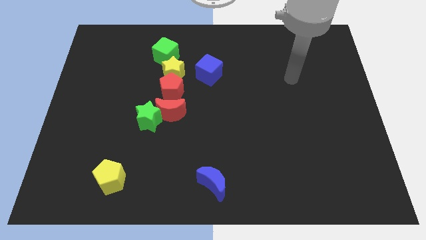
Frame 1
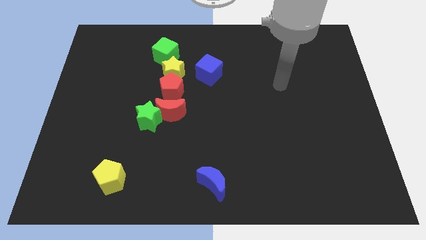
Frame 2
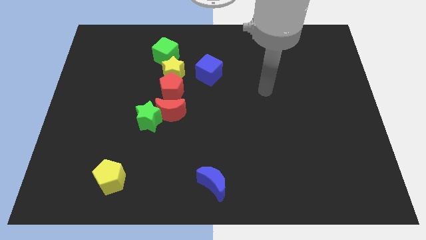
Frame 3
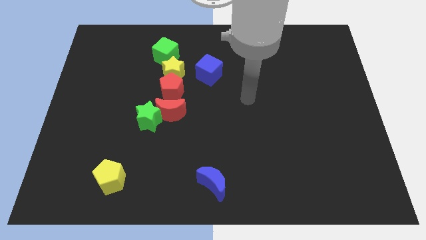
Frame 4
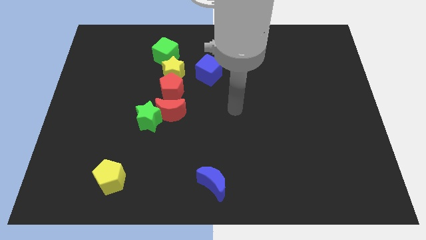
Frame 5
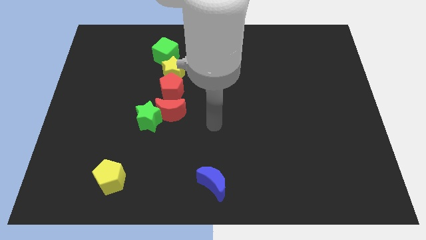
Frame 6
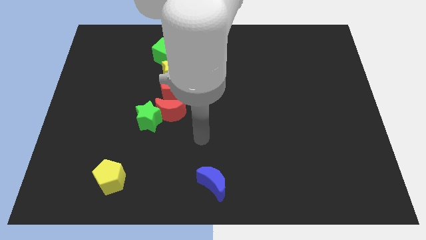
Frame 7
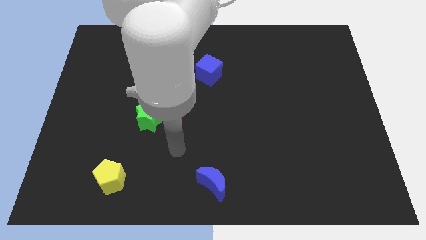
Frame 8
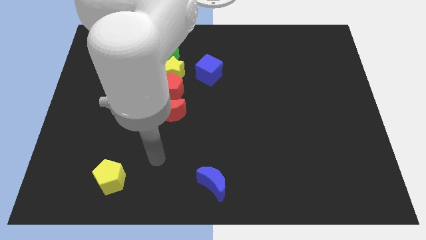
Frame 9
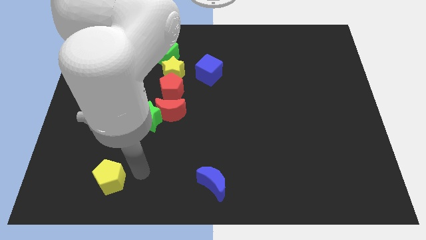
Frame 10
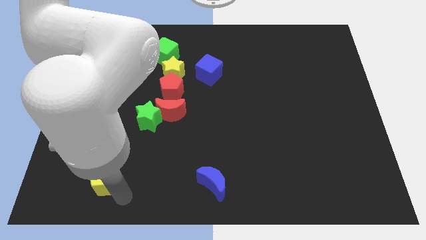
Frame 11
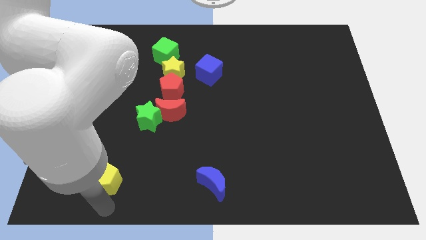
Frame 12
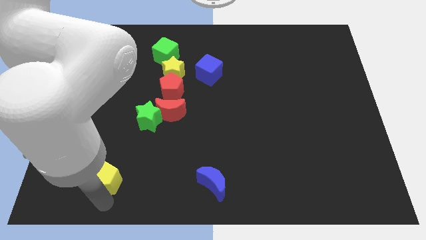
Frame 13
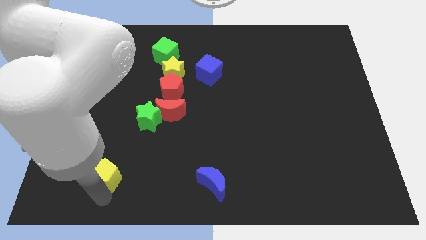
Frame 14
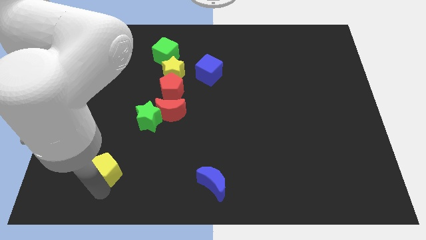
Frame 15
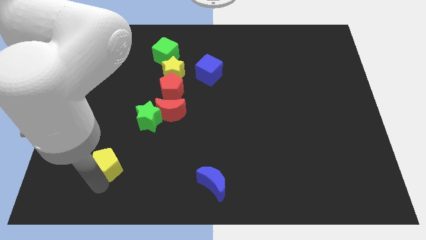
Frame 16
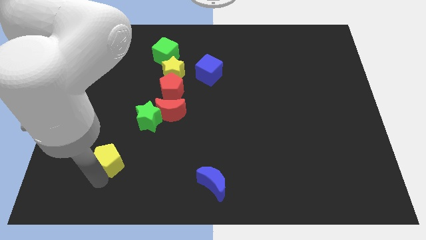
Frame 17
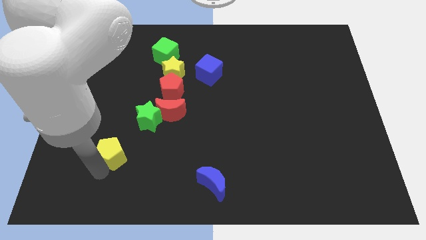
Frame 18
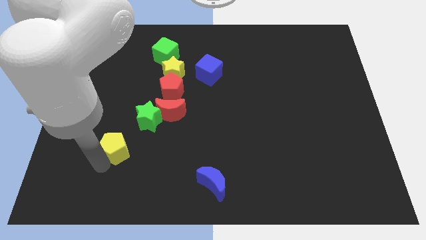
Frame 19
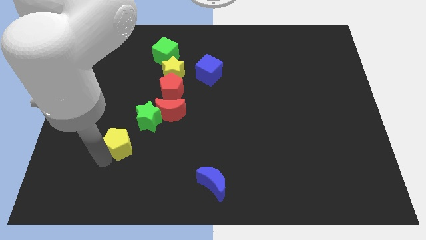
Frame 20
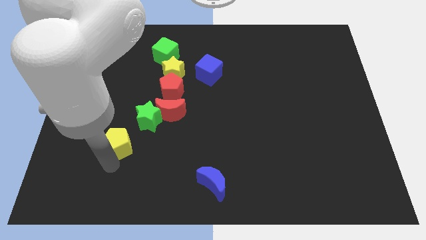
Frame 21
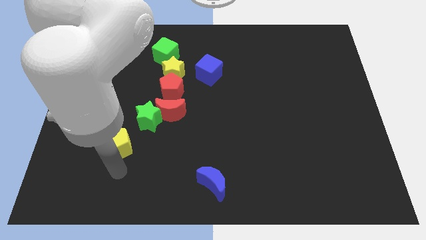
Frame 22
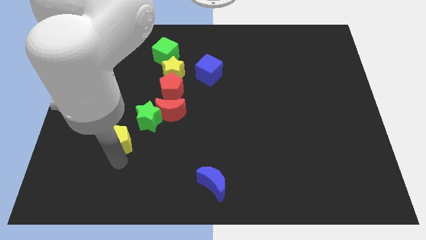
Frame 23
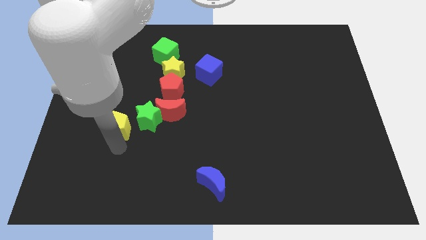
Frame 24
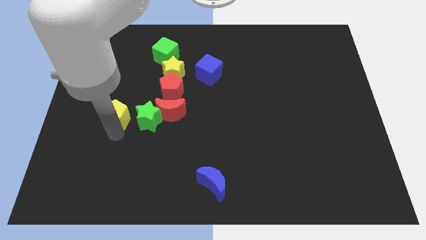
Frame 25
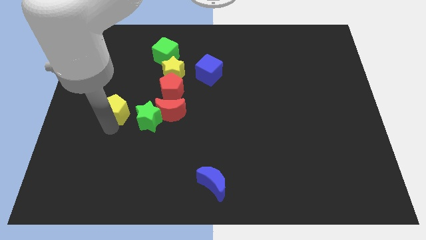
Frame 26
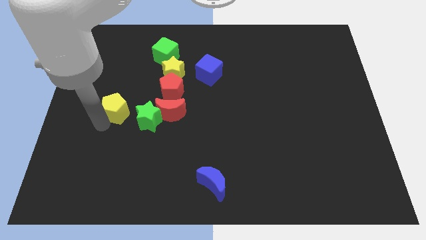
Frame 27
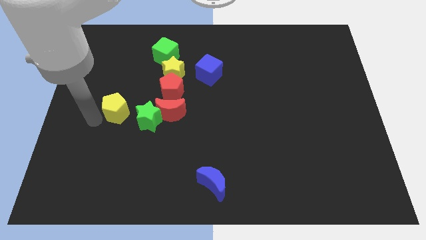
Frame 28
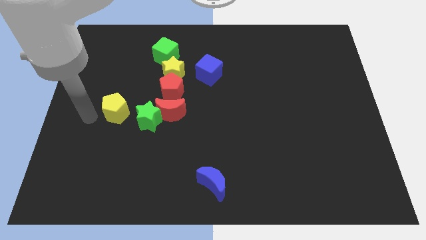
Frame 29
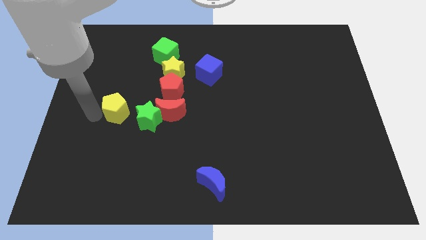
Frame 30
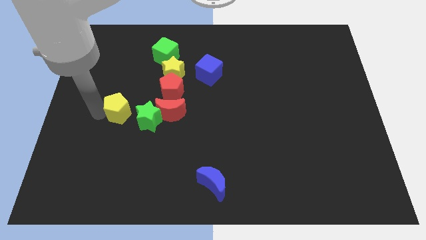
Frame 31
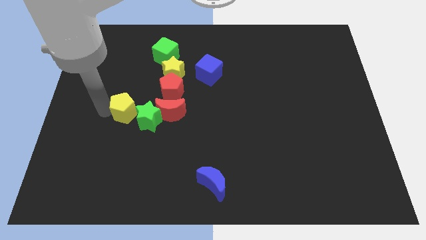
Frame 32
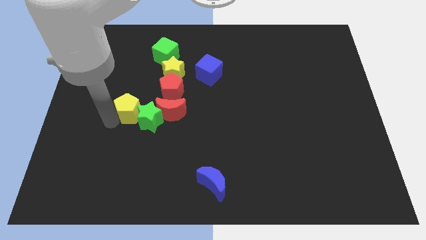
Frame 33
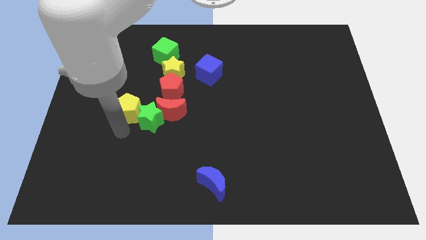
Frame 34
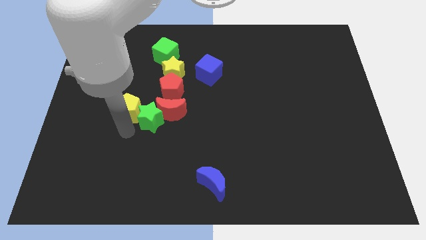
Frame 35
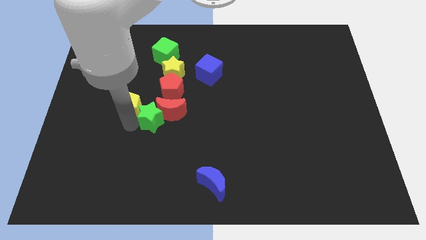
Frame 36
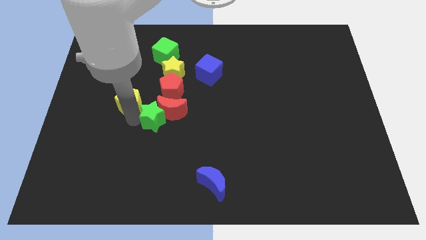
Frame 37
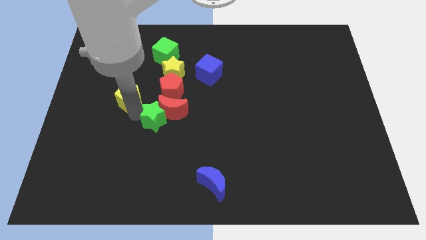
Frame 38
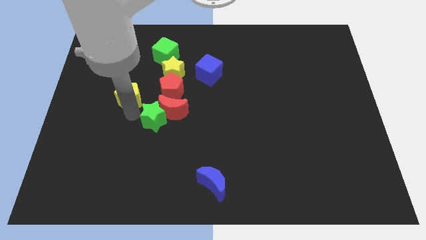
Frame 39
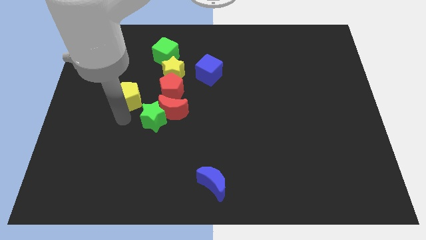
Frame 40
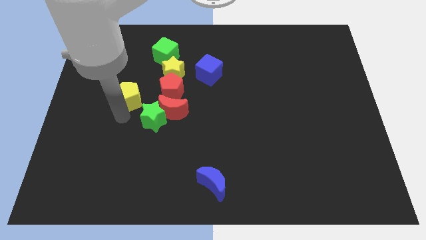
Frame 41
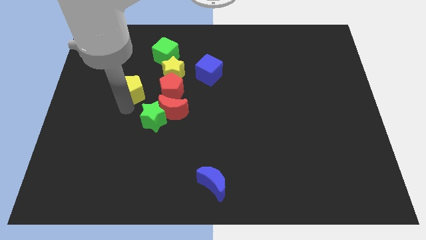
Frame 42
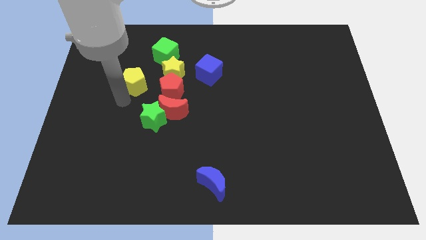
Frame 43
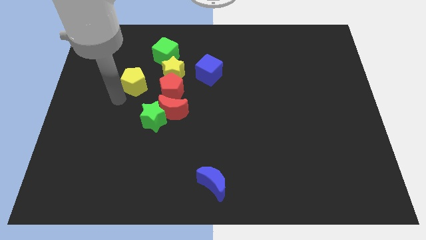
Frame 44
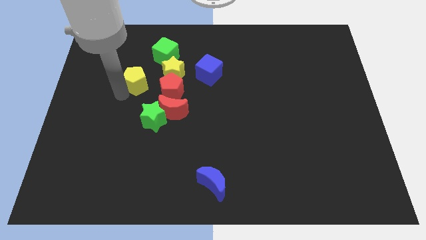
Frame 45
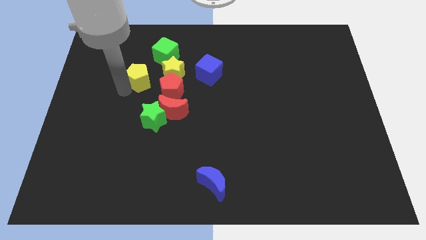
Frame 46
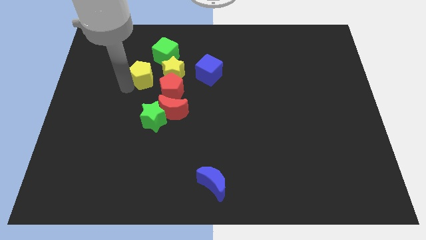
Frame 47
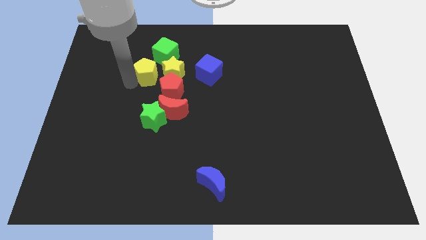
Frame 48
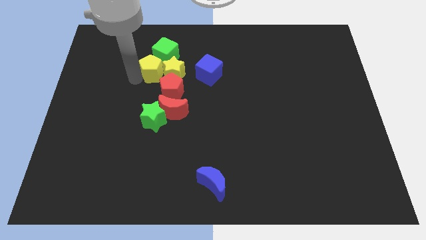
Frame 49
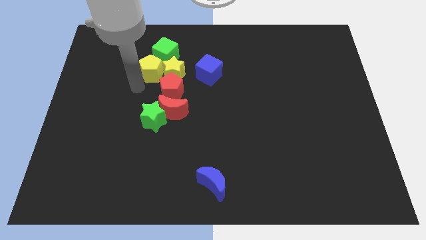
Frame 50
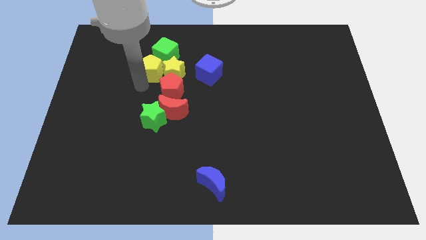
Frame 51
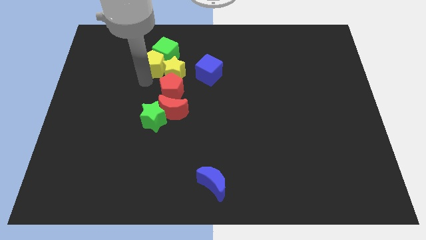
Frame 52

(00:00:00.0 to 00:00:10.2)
move the yellow pentagon to the green cube

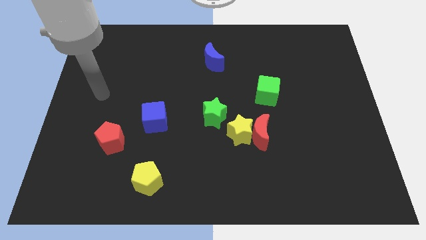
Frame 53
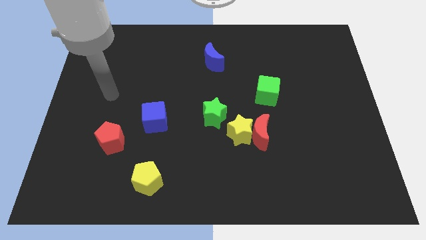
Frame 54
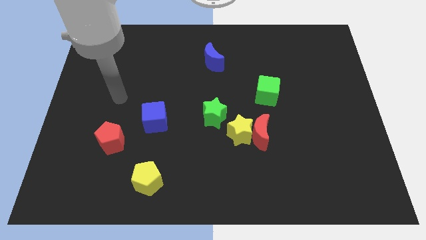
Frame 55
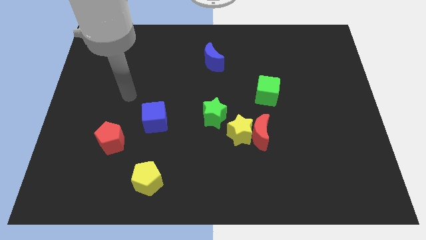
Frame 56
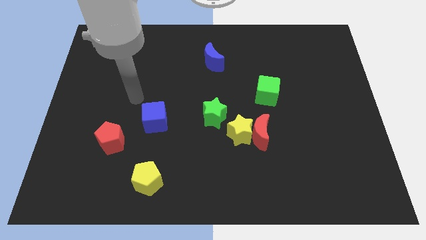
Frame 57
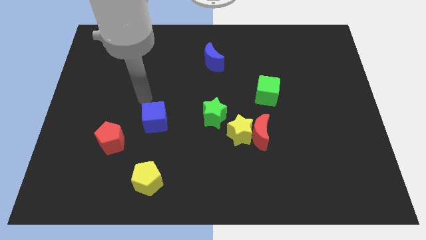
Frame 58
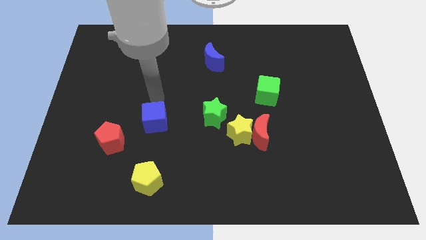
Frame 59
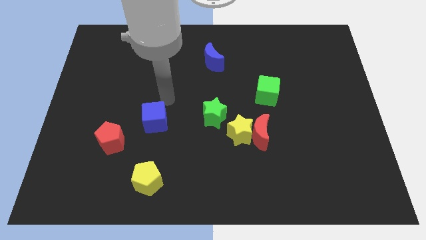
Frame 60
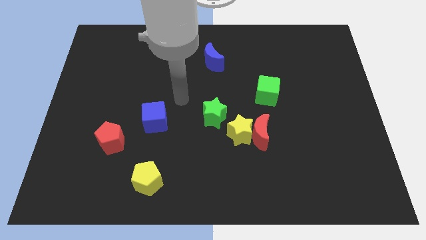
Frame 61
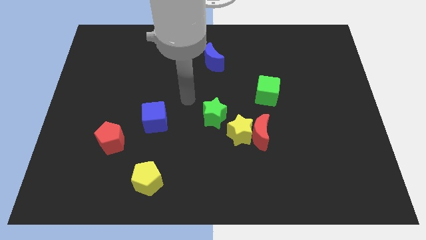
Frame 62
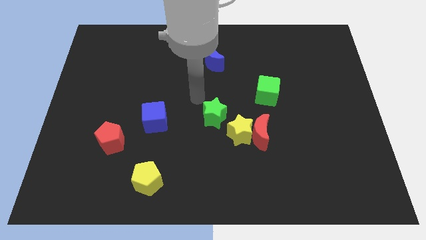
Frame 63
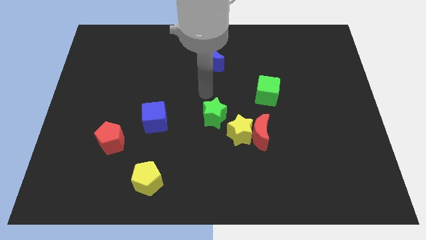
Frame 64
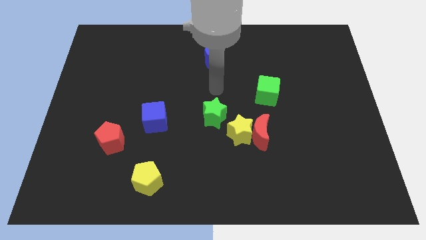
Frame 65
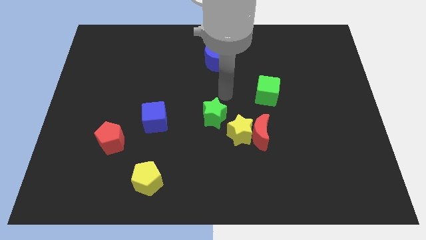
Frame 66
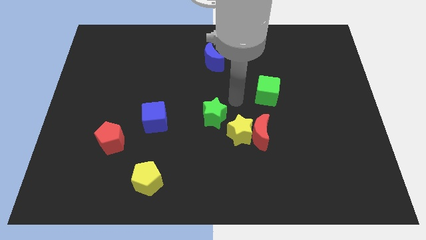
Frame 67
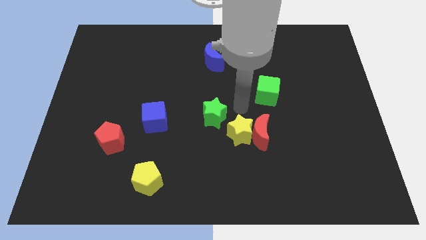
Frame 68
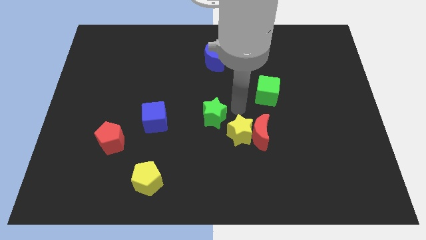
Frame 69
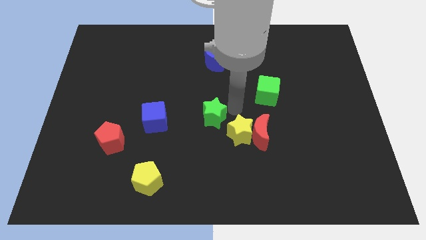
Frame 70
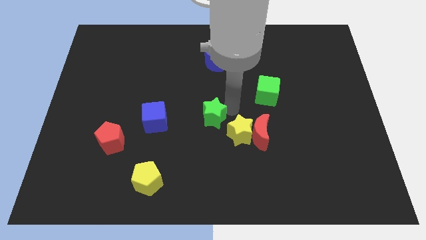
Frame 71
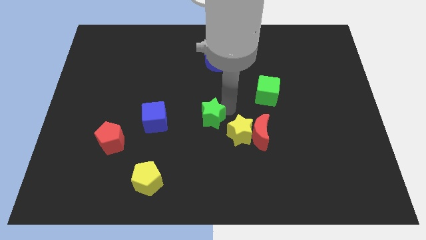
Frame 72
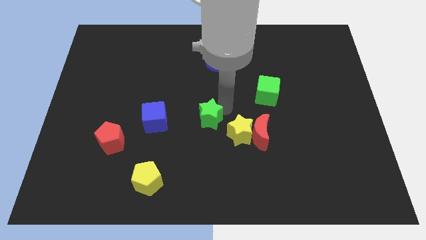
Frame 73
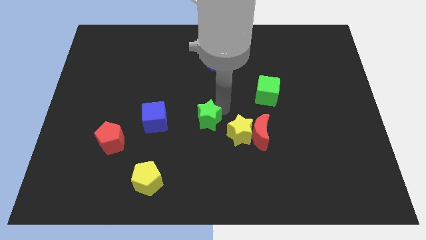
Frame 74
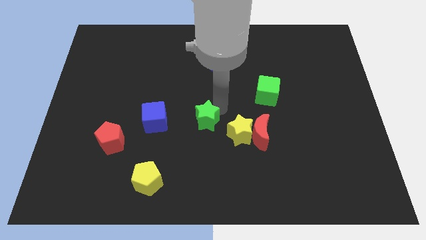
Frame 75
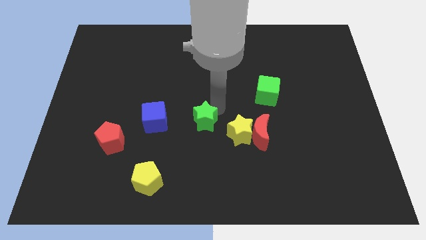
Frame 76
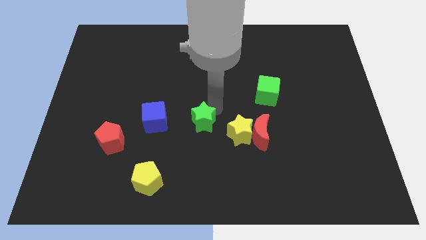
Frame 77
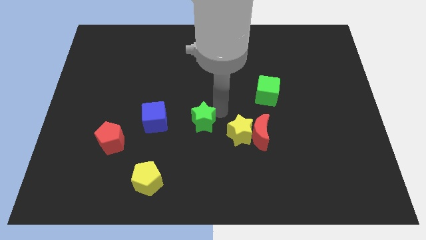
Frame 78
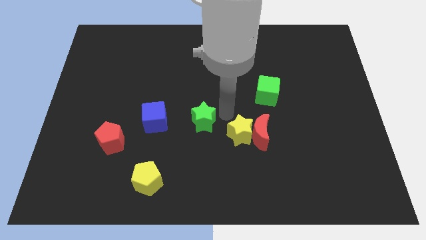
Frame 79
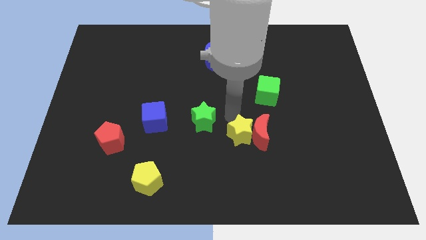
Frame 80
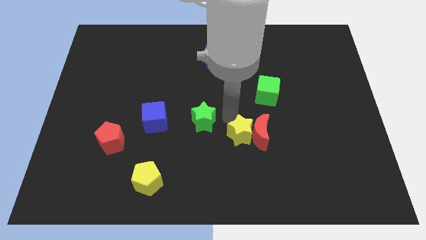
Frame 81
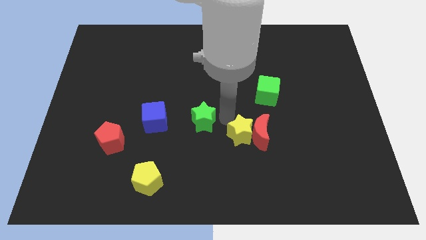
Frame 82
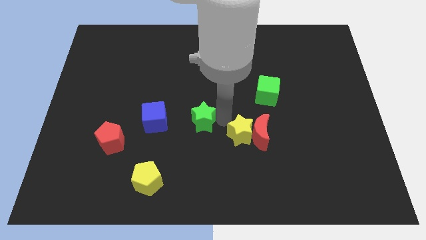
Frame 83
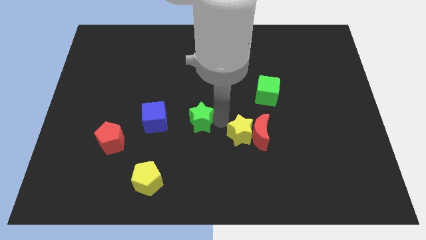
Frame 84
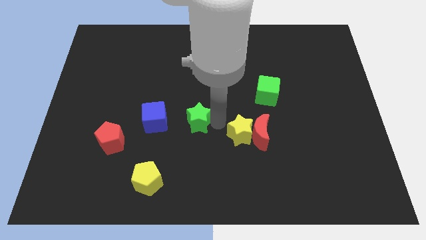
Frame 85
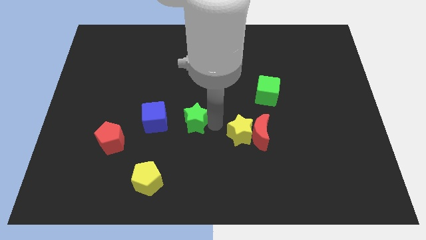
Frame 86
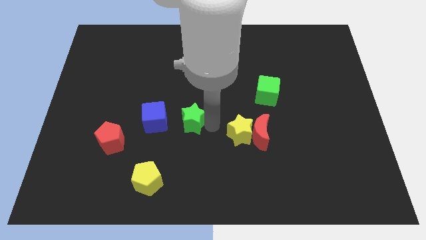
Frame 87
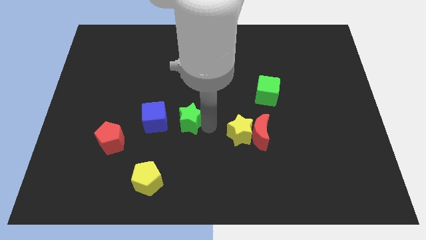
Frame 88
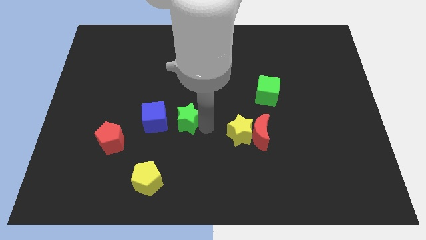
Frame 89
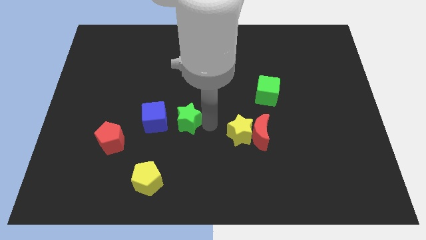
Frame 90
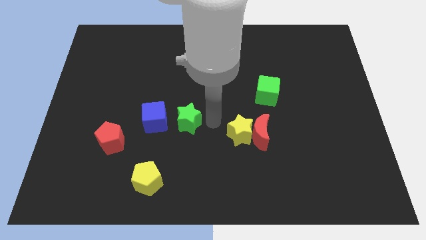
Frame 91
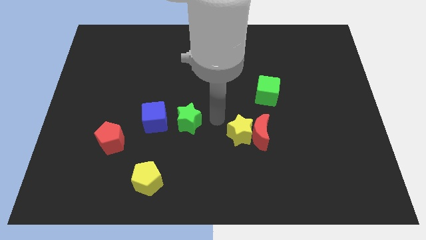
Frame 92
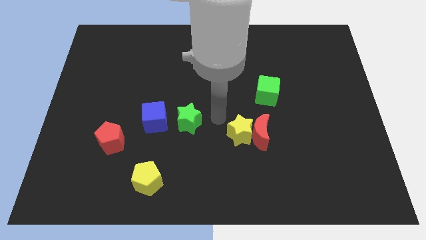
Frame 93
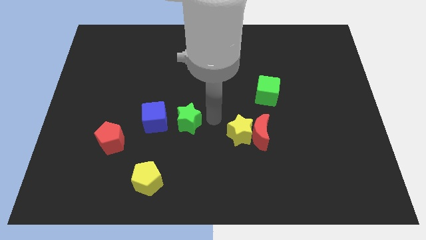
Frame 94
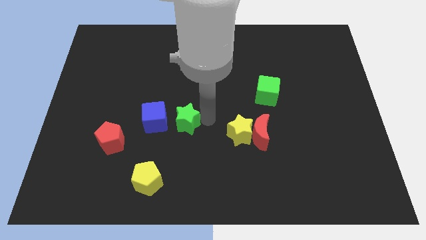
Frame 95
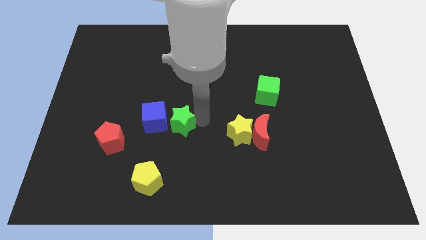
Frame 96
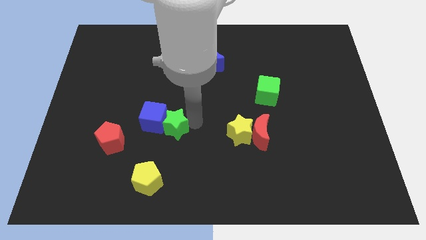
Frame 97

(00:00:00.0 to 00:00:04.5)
move the green star to the blue cube
